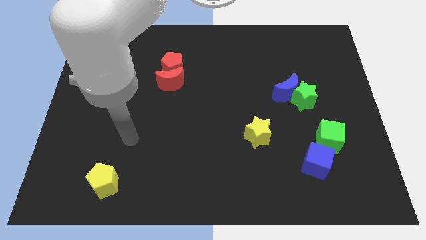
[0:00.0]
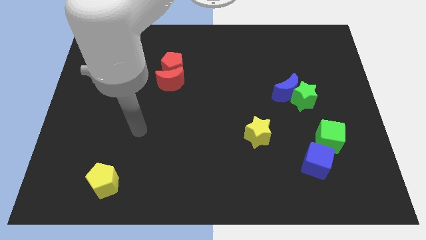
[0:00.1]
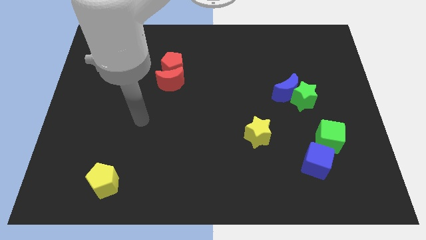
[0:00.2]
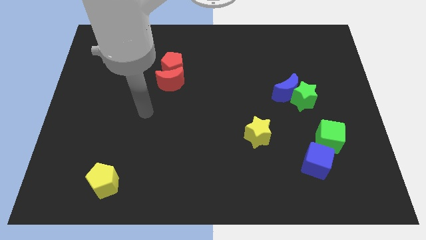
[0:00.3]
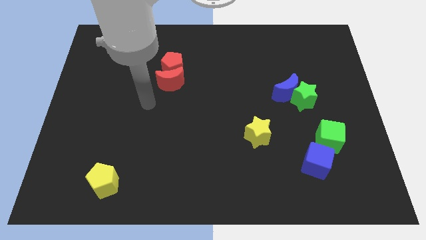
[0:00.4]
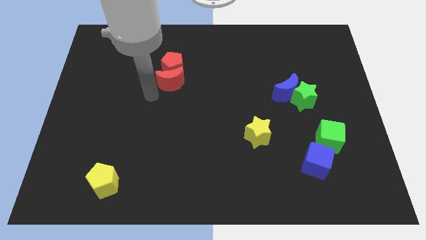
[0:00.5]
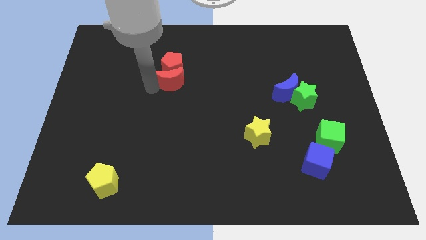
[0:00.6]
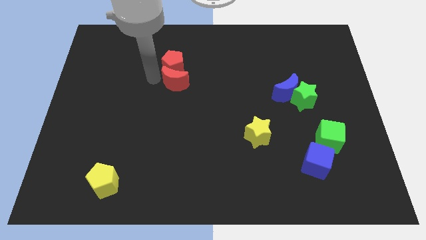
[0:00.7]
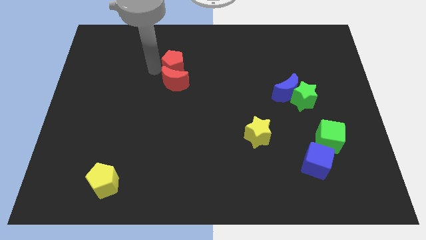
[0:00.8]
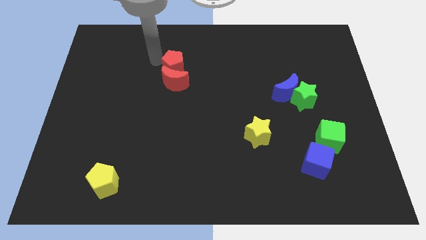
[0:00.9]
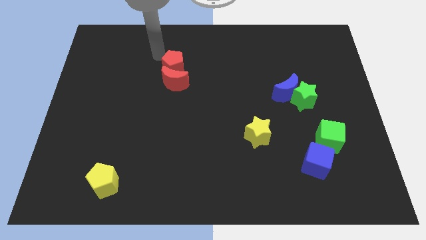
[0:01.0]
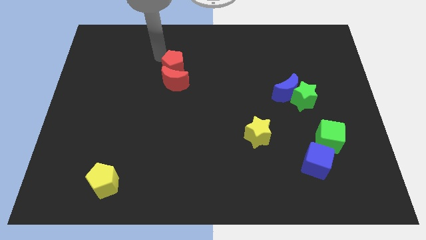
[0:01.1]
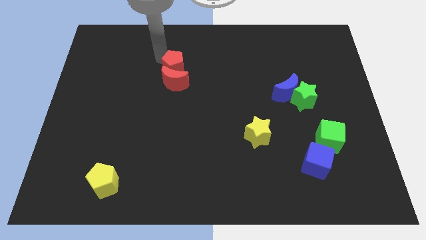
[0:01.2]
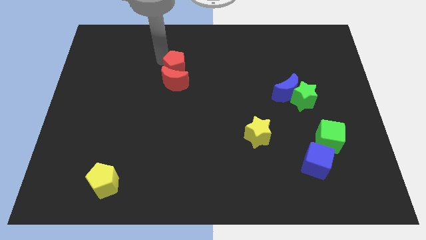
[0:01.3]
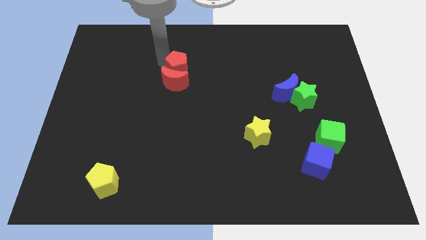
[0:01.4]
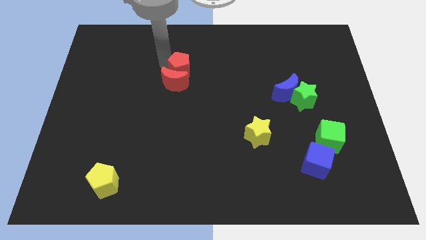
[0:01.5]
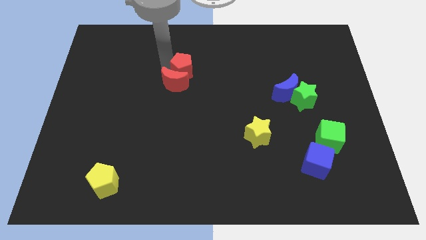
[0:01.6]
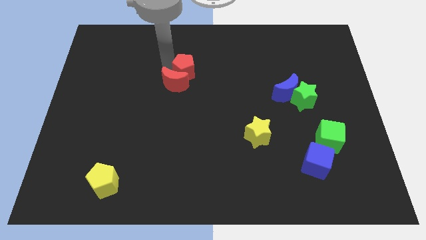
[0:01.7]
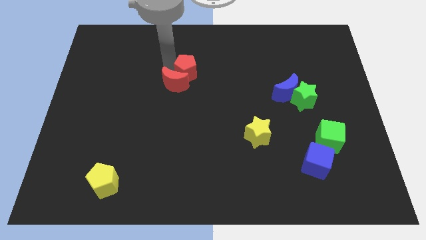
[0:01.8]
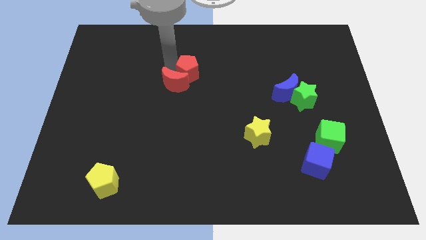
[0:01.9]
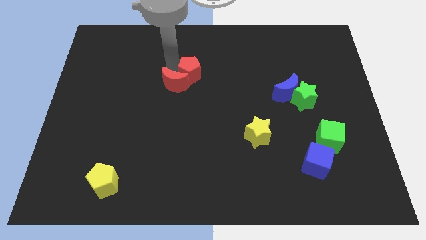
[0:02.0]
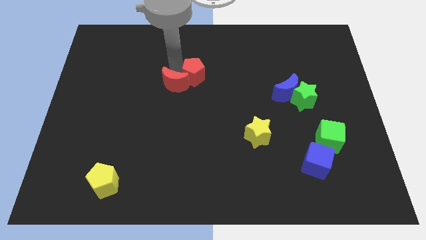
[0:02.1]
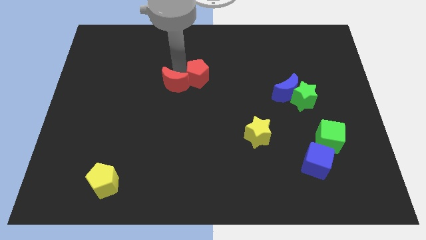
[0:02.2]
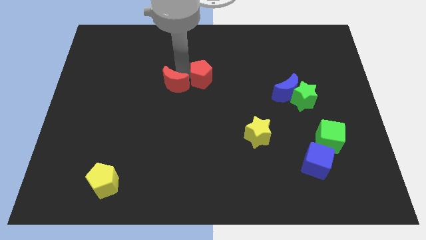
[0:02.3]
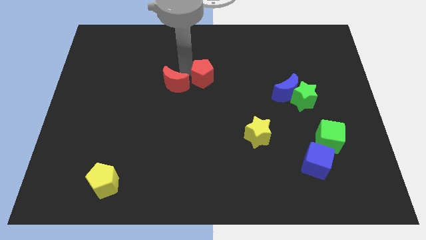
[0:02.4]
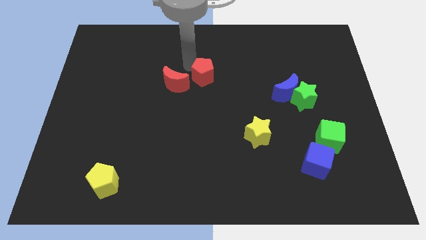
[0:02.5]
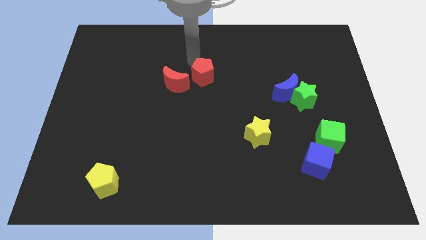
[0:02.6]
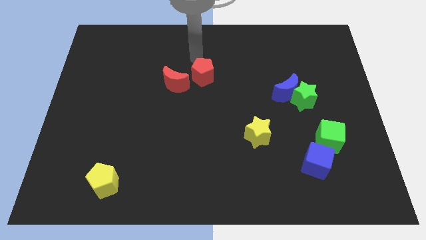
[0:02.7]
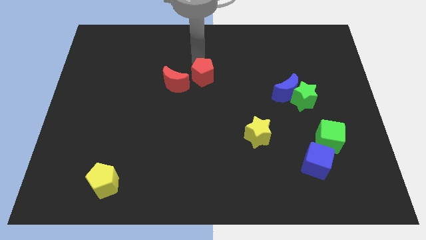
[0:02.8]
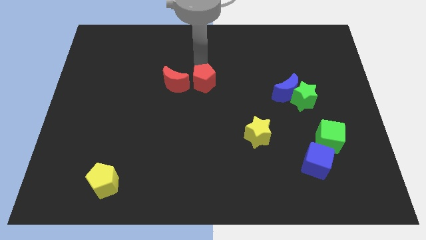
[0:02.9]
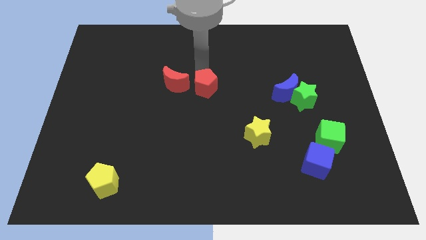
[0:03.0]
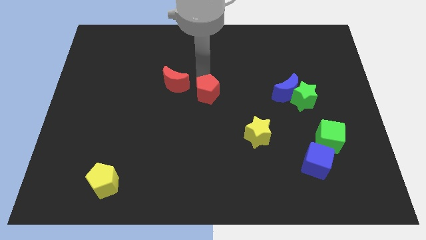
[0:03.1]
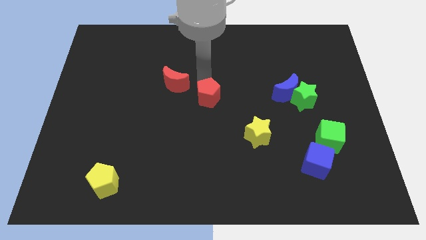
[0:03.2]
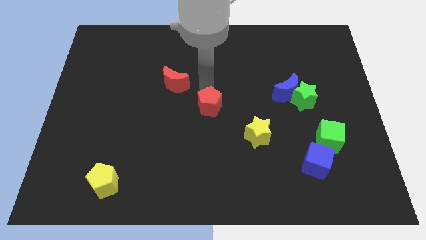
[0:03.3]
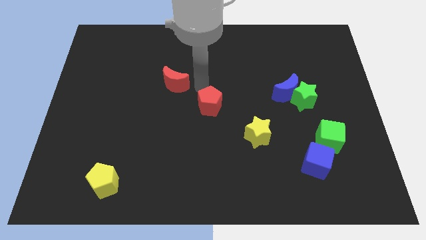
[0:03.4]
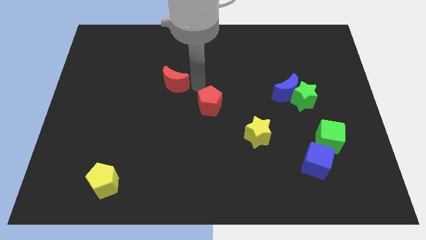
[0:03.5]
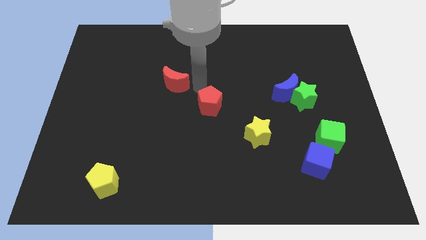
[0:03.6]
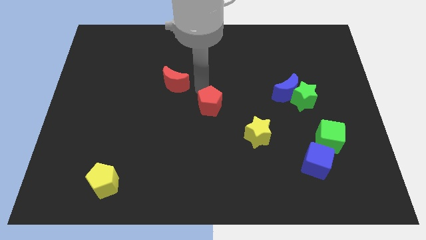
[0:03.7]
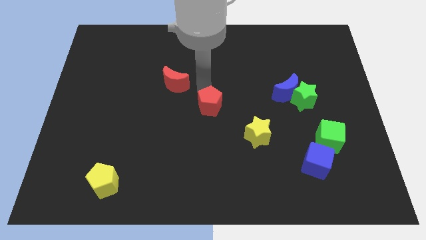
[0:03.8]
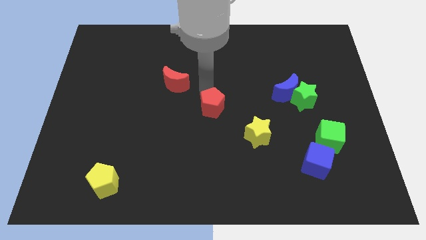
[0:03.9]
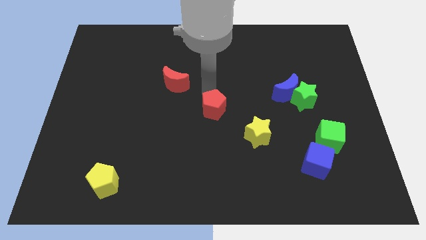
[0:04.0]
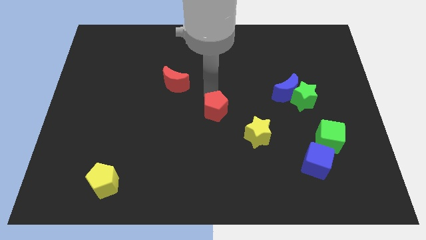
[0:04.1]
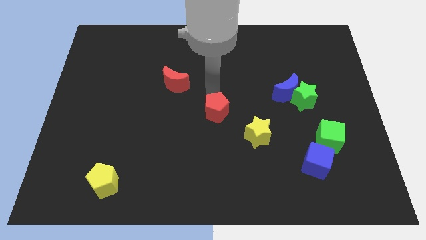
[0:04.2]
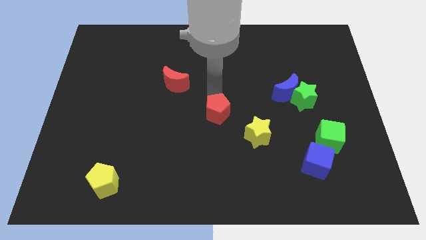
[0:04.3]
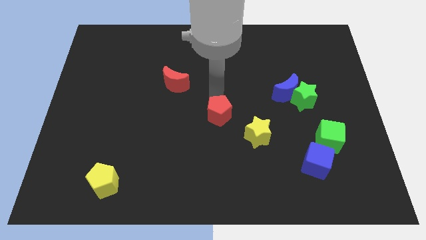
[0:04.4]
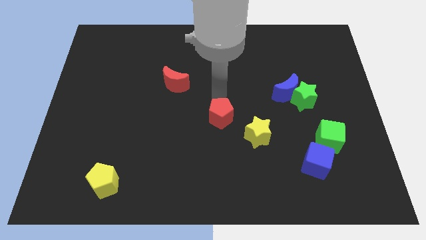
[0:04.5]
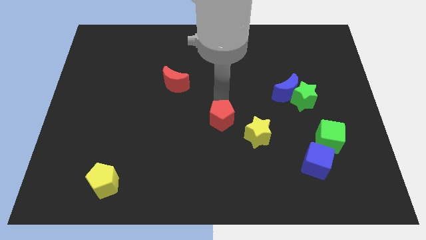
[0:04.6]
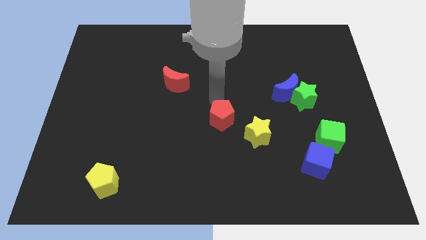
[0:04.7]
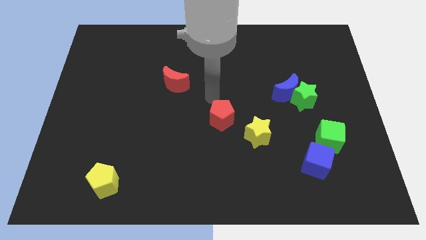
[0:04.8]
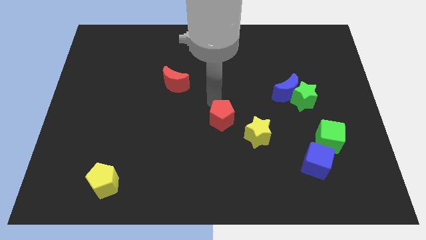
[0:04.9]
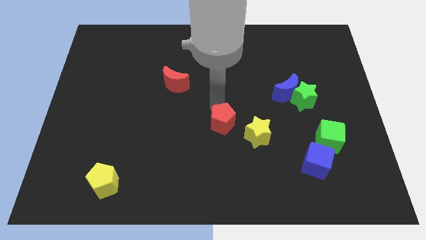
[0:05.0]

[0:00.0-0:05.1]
slide the red pentagon down and then right

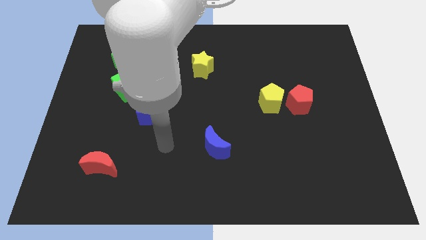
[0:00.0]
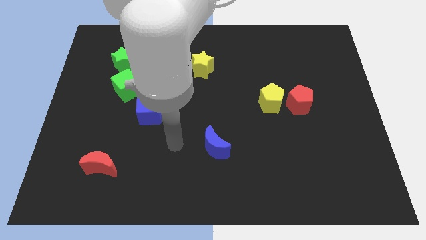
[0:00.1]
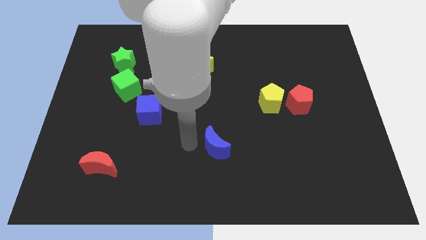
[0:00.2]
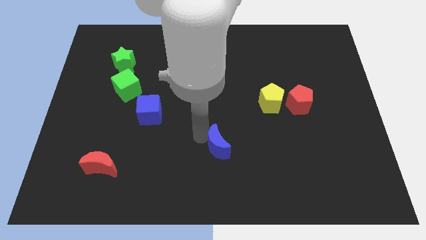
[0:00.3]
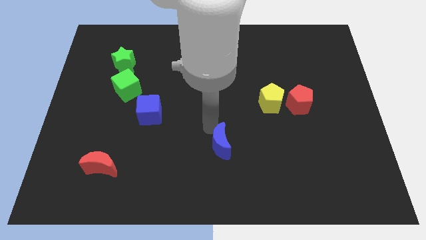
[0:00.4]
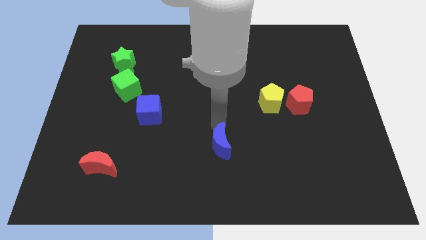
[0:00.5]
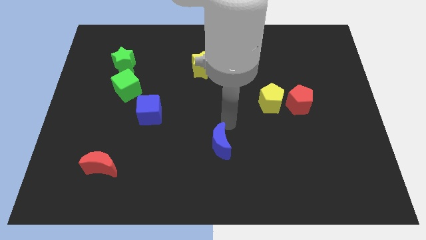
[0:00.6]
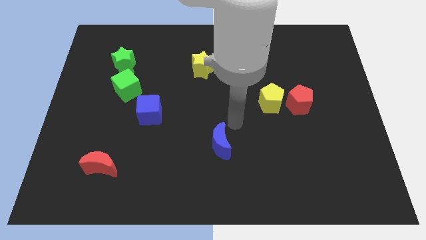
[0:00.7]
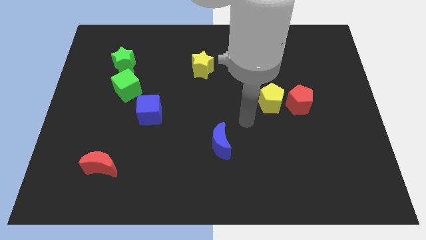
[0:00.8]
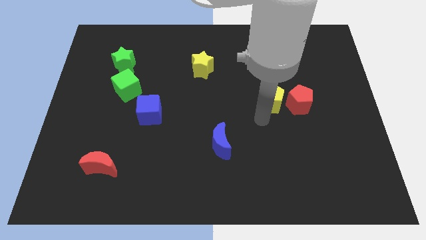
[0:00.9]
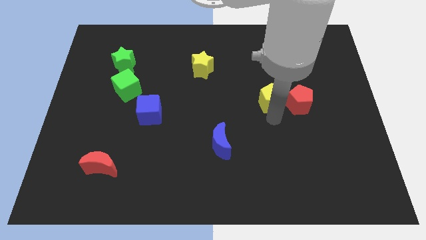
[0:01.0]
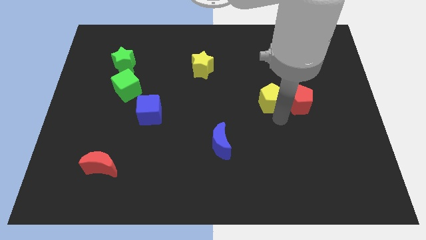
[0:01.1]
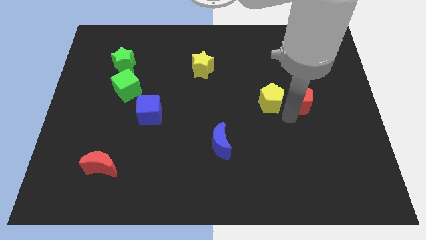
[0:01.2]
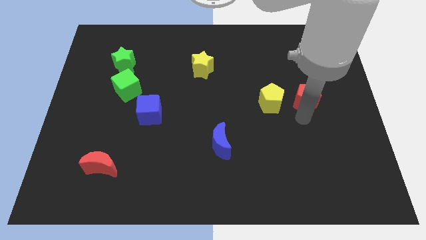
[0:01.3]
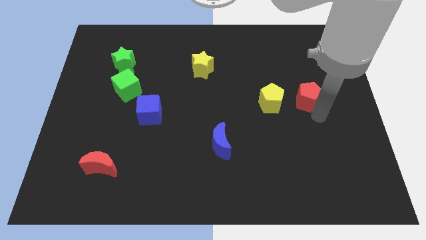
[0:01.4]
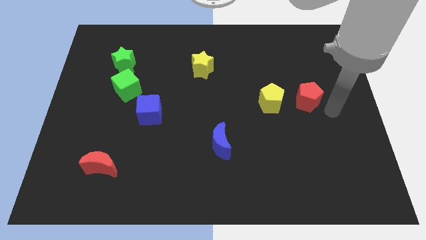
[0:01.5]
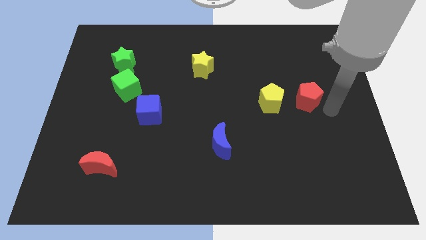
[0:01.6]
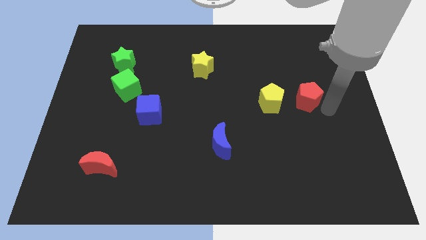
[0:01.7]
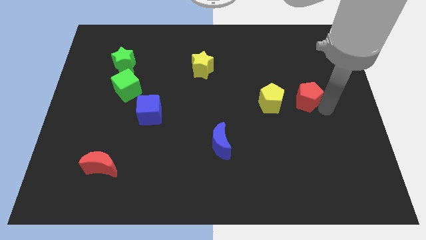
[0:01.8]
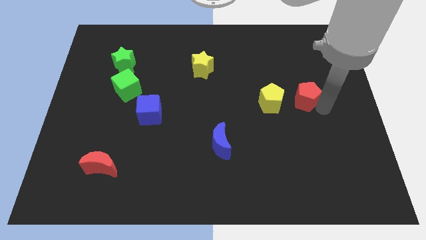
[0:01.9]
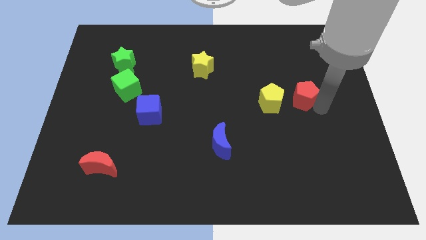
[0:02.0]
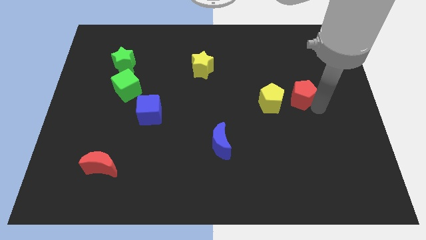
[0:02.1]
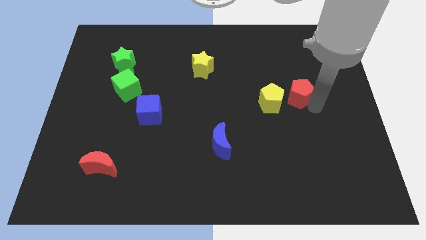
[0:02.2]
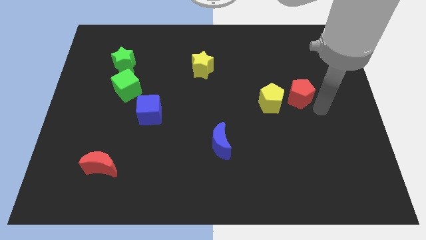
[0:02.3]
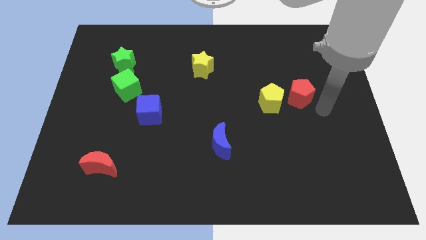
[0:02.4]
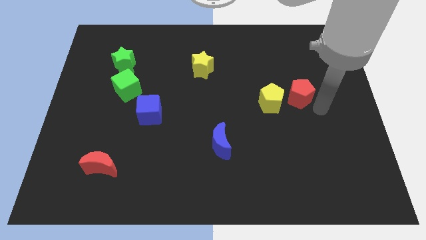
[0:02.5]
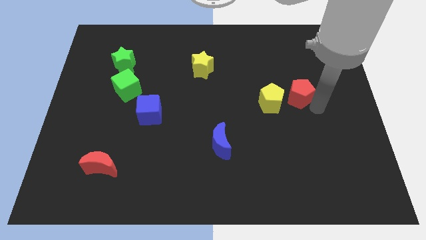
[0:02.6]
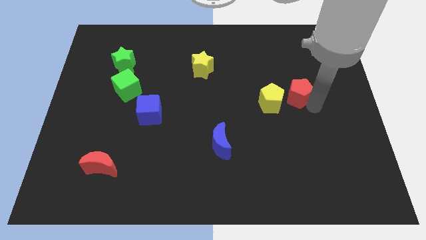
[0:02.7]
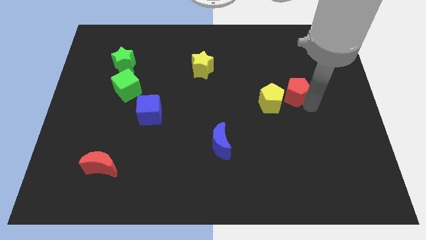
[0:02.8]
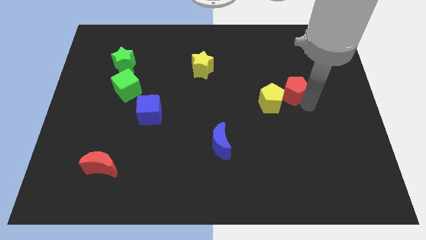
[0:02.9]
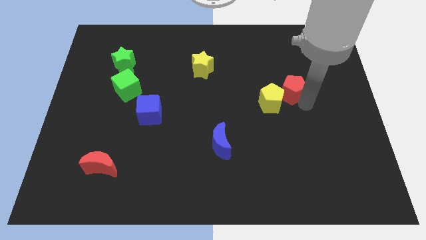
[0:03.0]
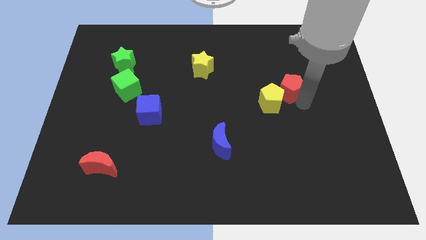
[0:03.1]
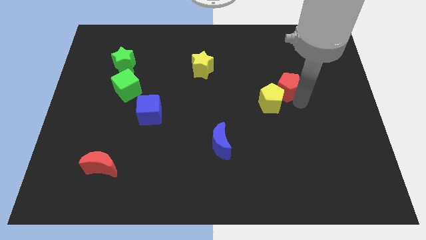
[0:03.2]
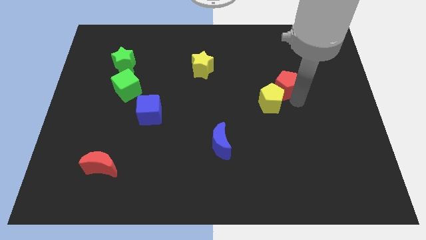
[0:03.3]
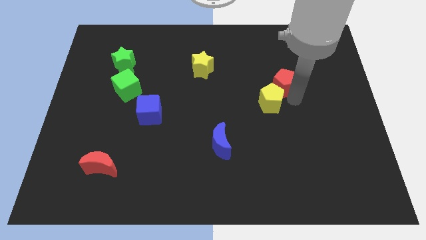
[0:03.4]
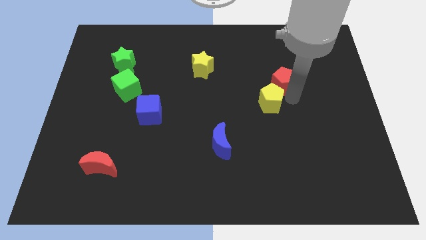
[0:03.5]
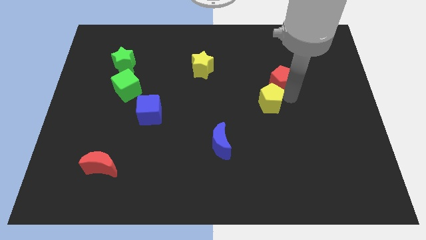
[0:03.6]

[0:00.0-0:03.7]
push the red pentagon upwards and left diagonally slightly
